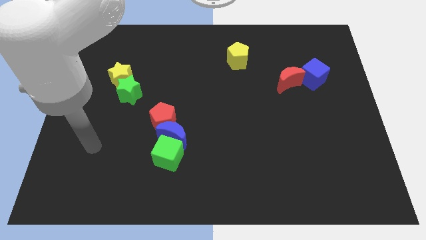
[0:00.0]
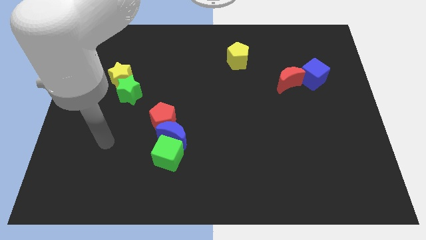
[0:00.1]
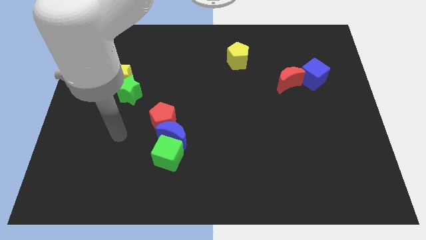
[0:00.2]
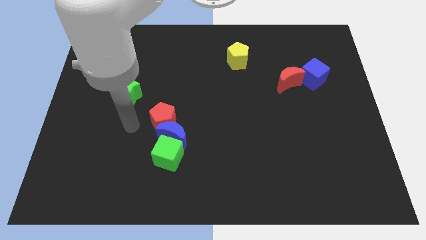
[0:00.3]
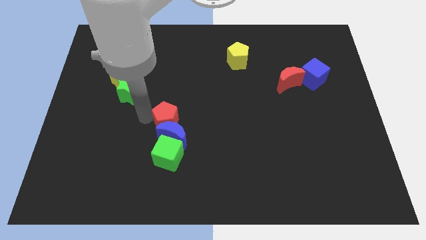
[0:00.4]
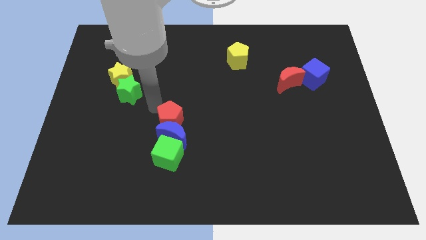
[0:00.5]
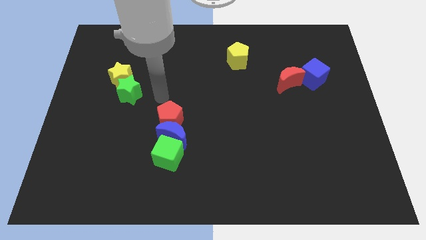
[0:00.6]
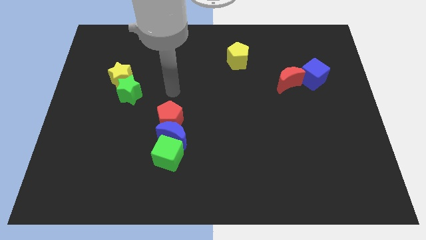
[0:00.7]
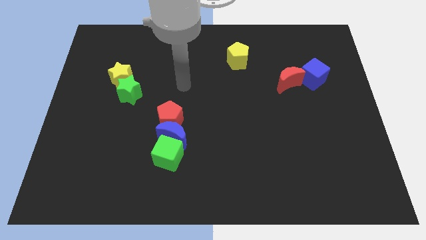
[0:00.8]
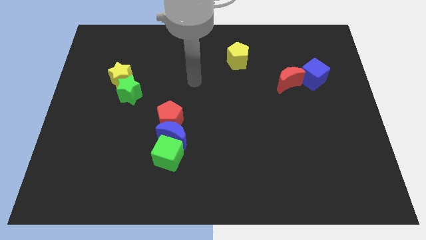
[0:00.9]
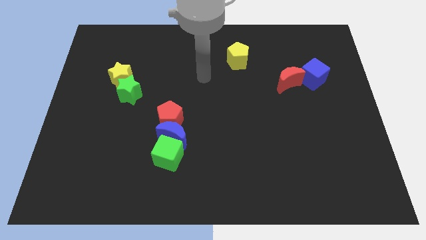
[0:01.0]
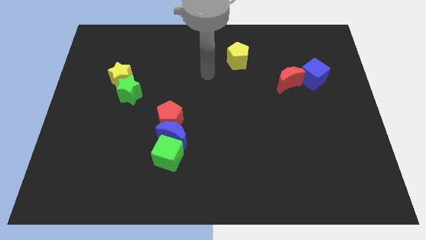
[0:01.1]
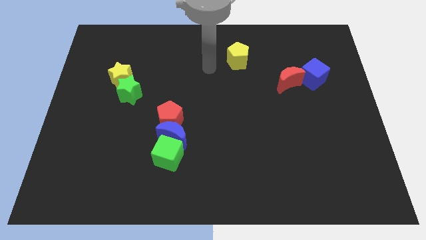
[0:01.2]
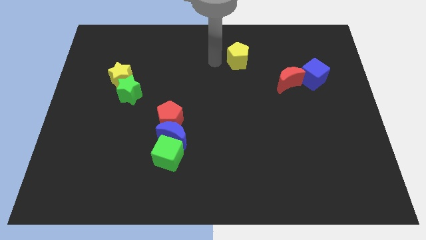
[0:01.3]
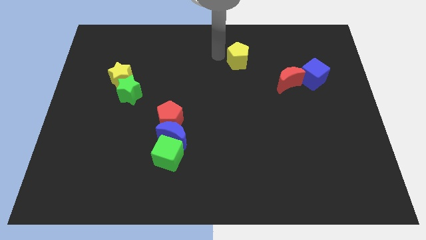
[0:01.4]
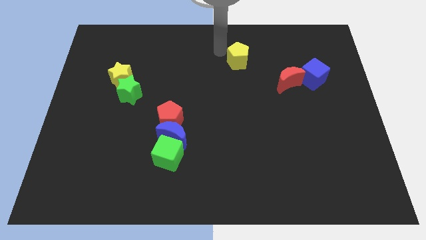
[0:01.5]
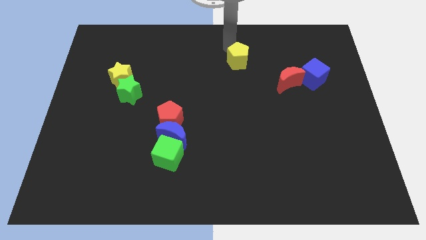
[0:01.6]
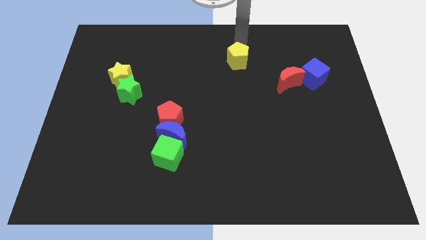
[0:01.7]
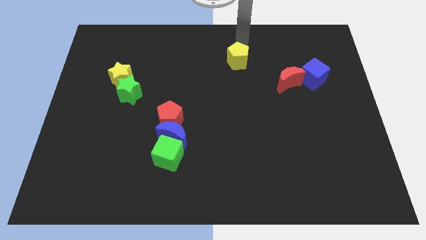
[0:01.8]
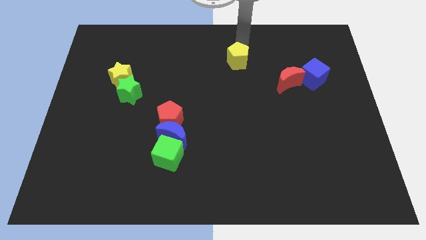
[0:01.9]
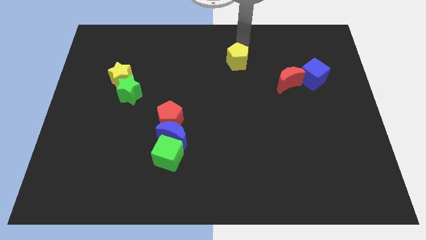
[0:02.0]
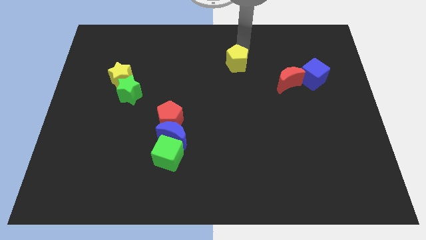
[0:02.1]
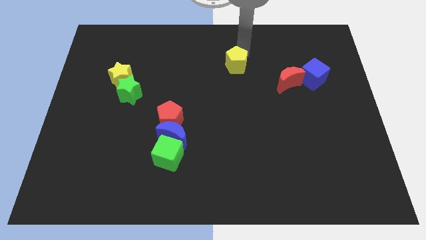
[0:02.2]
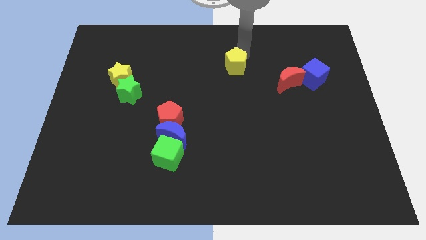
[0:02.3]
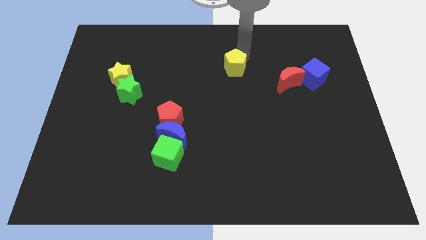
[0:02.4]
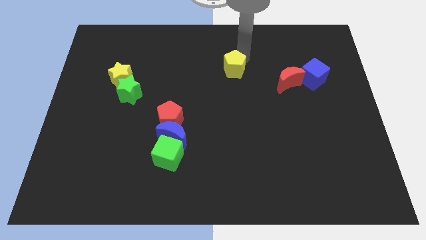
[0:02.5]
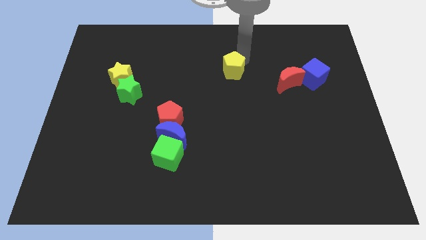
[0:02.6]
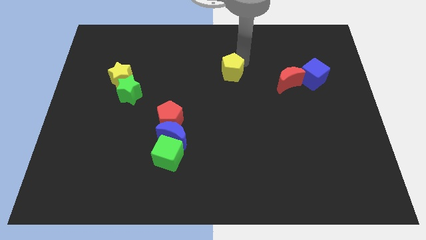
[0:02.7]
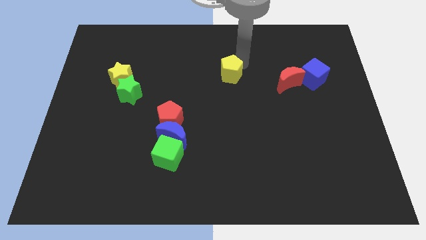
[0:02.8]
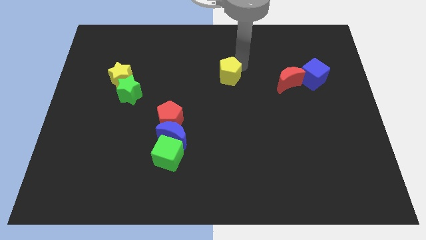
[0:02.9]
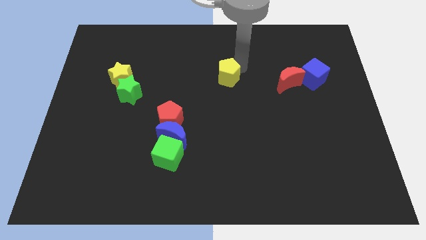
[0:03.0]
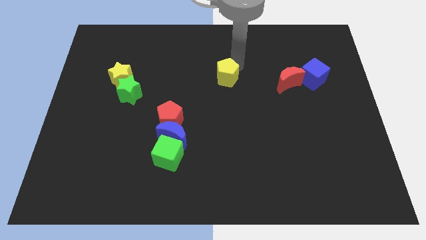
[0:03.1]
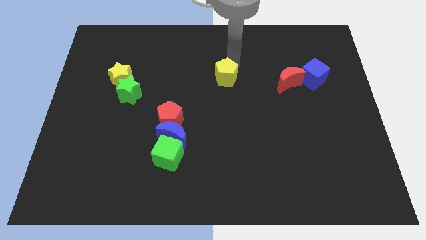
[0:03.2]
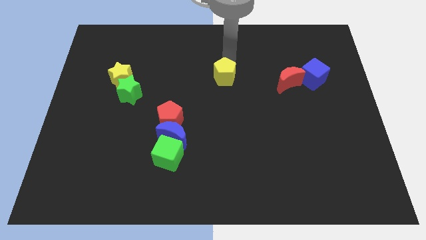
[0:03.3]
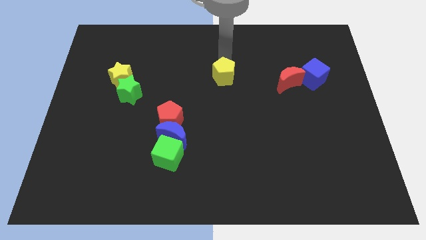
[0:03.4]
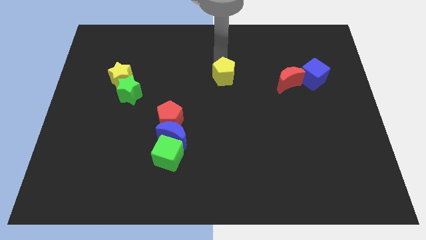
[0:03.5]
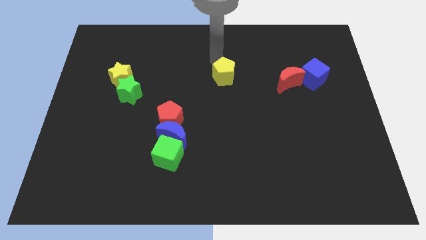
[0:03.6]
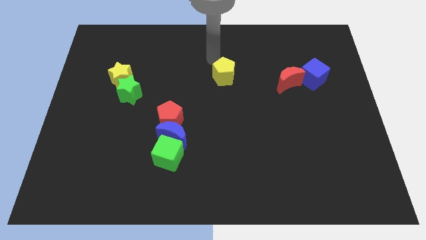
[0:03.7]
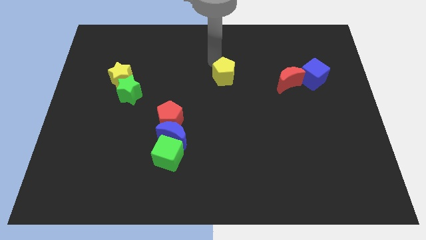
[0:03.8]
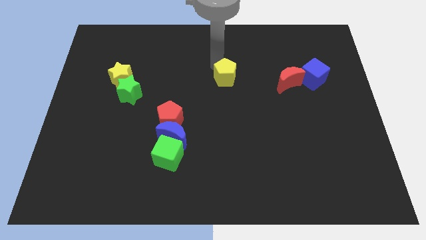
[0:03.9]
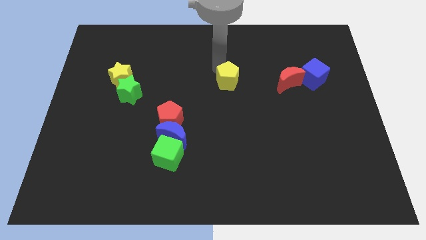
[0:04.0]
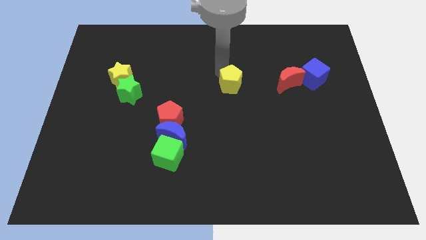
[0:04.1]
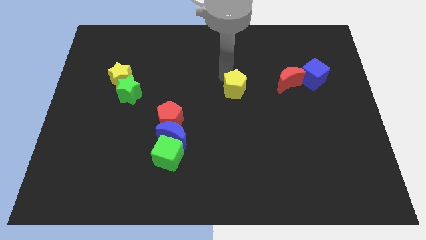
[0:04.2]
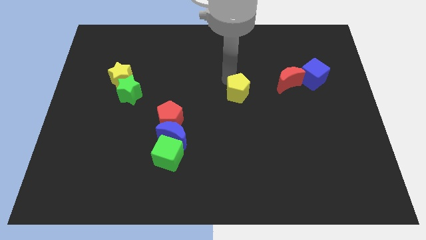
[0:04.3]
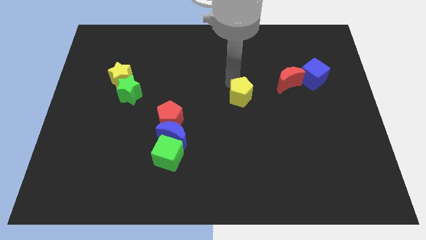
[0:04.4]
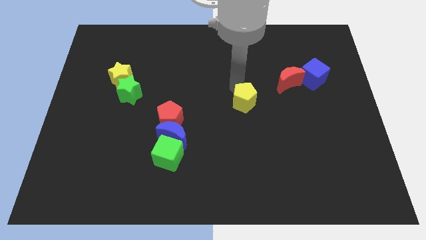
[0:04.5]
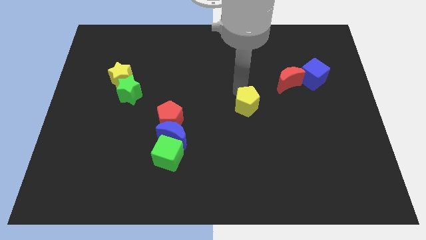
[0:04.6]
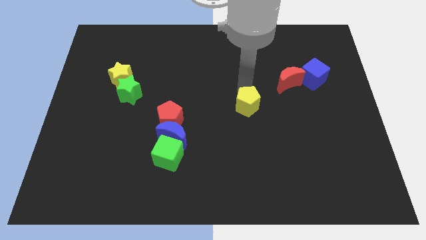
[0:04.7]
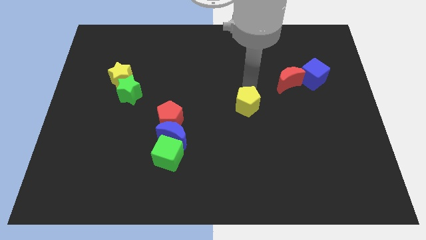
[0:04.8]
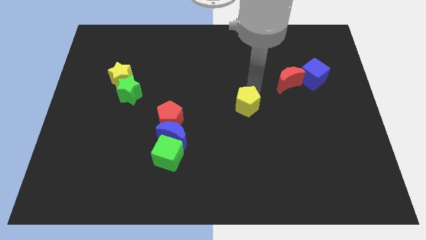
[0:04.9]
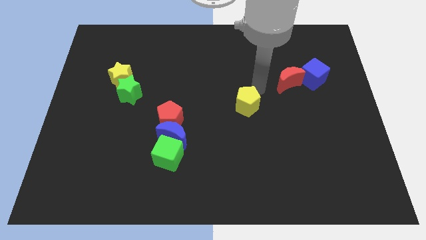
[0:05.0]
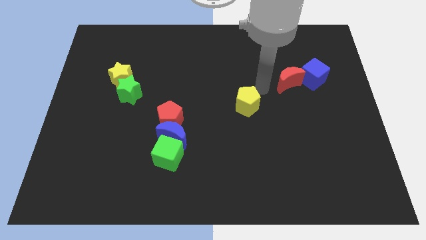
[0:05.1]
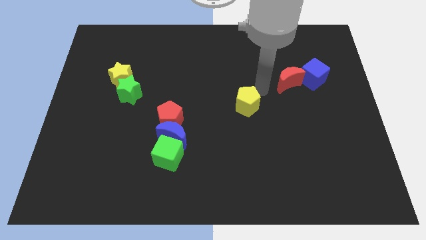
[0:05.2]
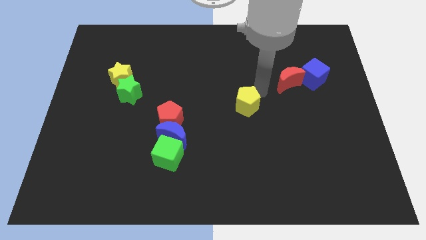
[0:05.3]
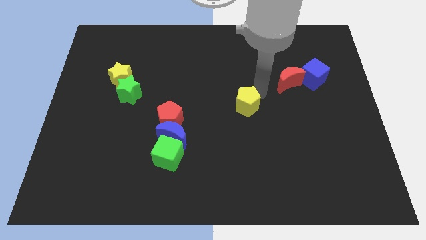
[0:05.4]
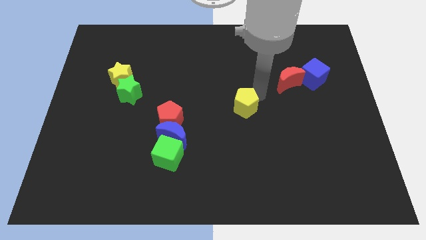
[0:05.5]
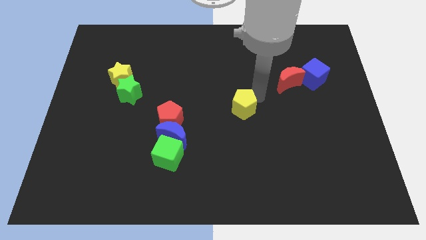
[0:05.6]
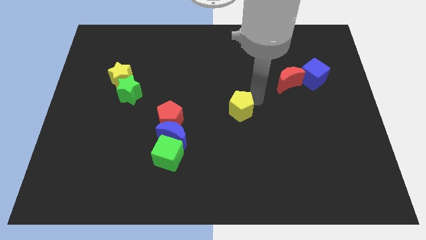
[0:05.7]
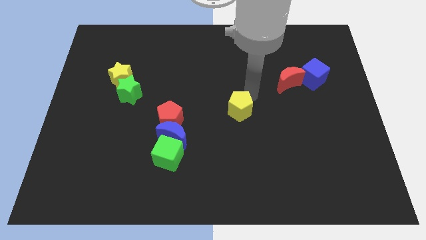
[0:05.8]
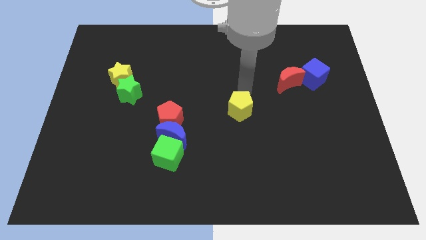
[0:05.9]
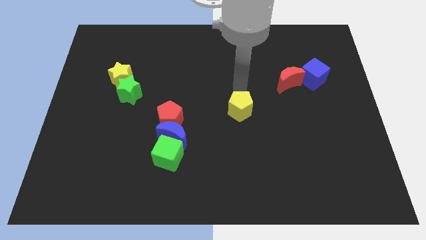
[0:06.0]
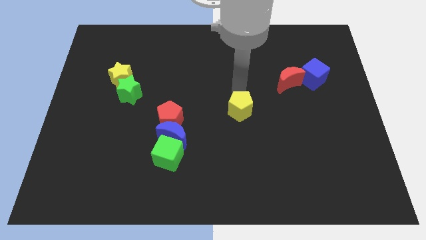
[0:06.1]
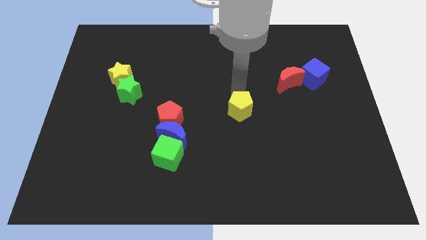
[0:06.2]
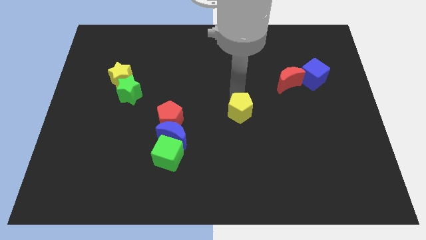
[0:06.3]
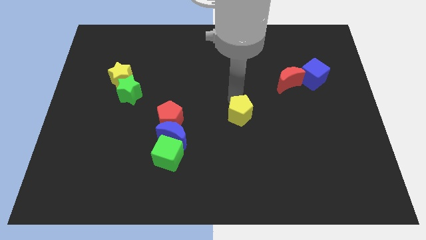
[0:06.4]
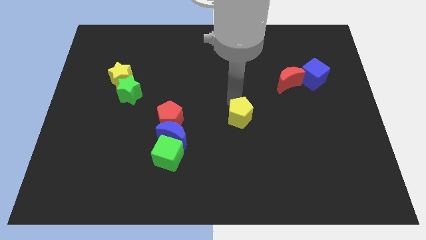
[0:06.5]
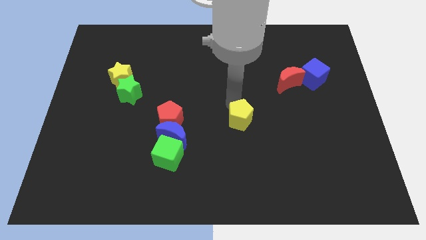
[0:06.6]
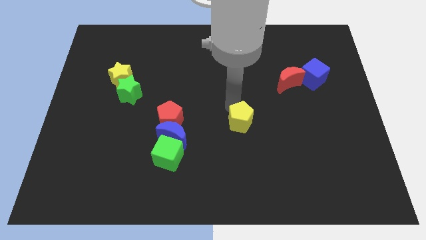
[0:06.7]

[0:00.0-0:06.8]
push the yellow pentagon downwards

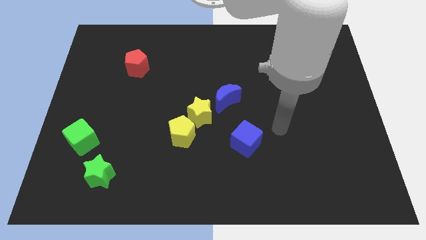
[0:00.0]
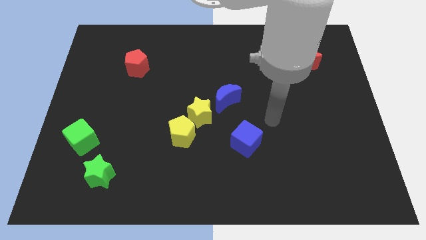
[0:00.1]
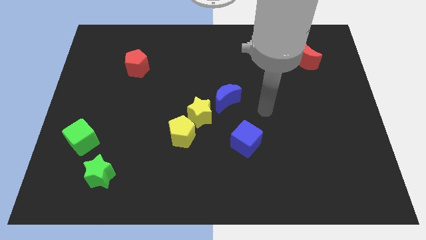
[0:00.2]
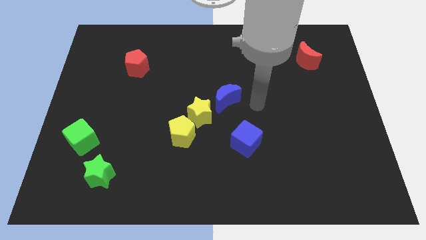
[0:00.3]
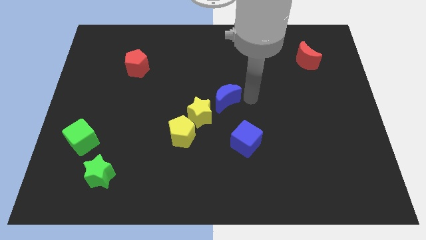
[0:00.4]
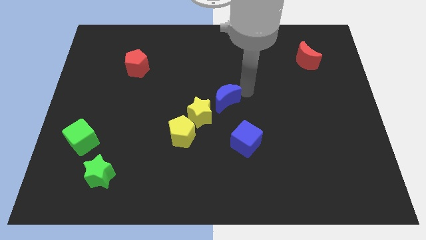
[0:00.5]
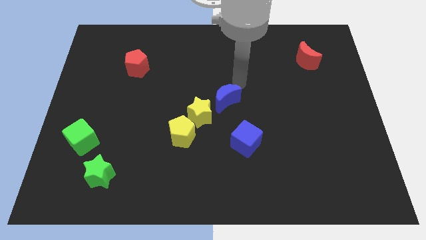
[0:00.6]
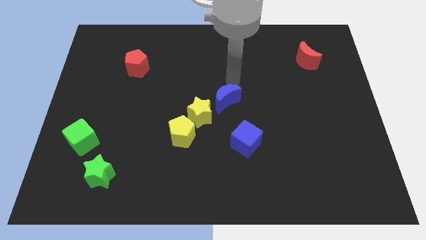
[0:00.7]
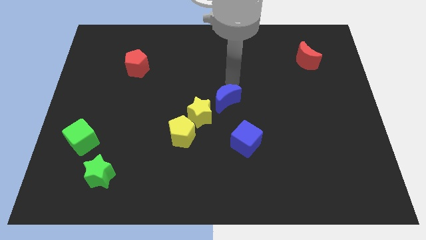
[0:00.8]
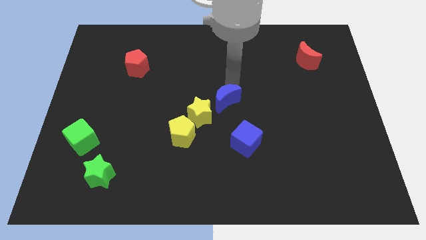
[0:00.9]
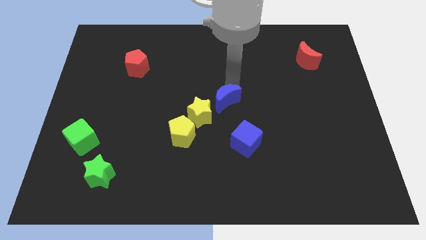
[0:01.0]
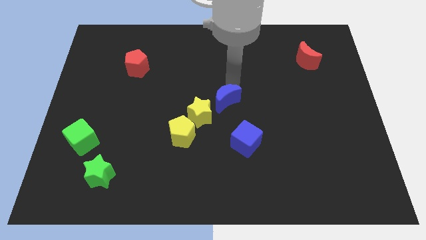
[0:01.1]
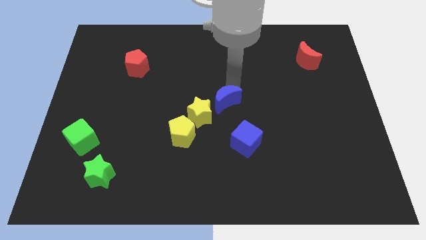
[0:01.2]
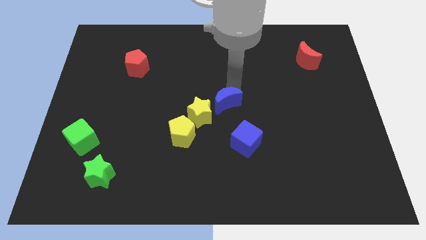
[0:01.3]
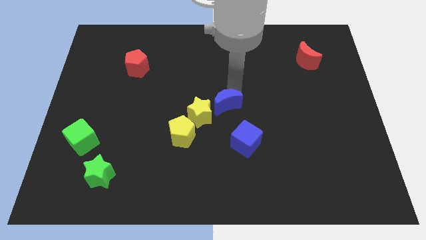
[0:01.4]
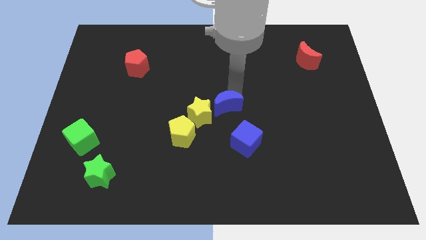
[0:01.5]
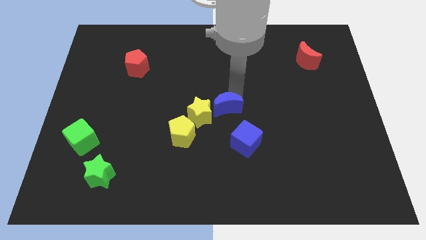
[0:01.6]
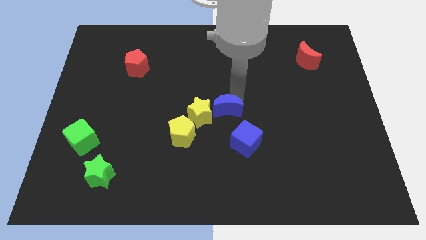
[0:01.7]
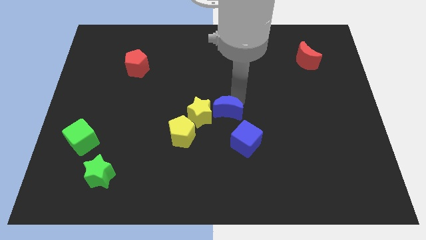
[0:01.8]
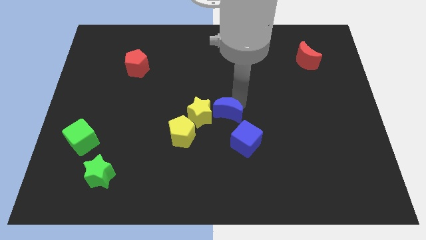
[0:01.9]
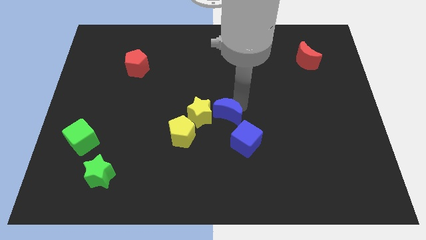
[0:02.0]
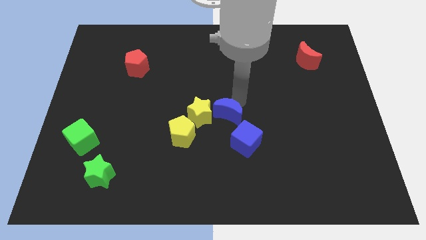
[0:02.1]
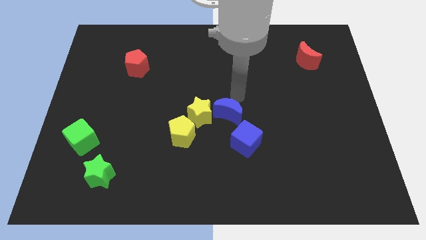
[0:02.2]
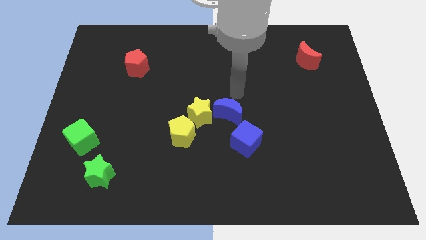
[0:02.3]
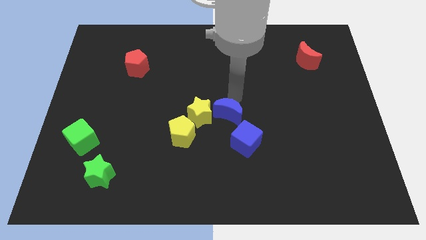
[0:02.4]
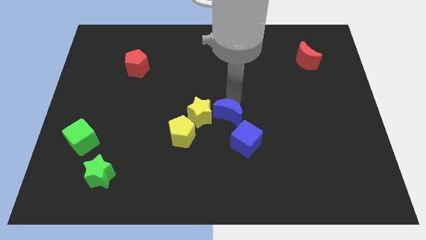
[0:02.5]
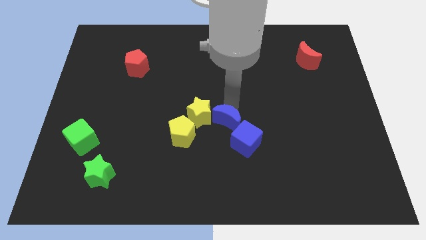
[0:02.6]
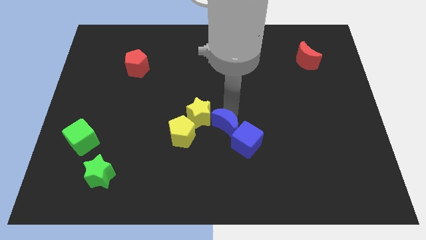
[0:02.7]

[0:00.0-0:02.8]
push the blue moon down slightly
